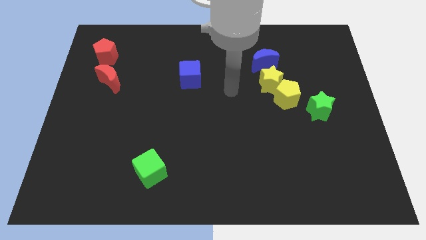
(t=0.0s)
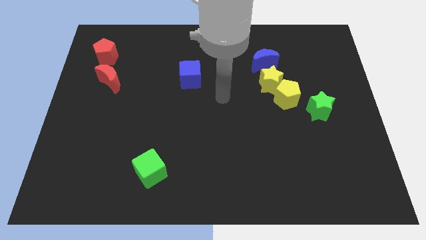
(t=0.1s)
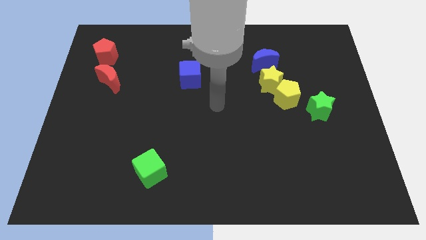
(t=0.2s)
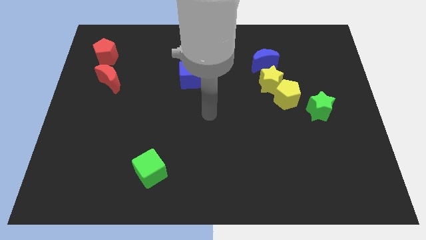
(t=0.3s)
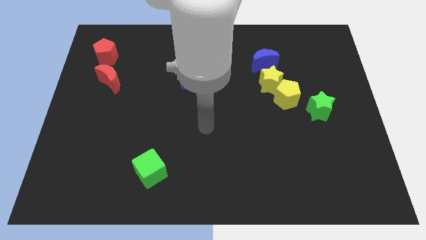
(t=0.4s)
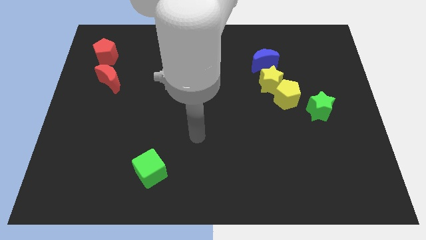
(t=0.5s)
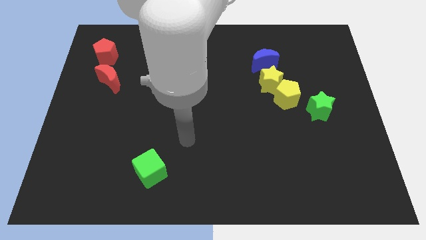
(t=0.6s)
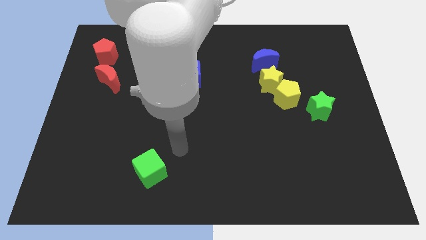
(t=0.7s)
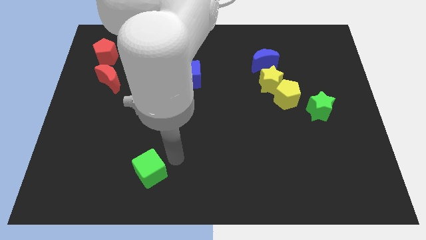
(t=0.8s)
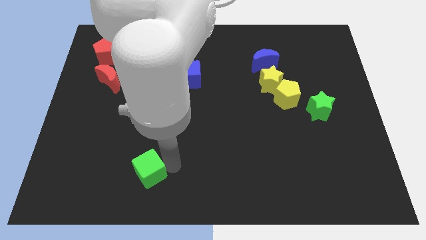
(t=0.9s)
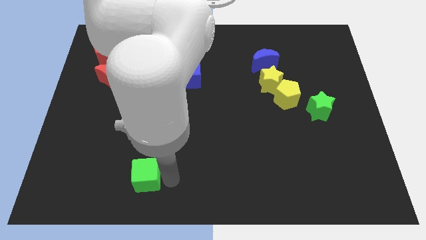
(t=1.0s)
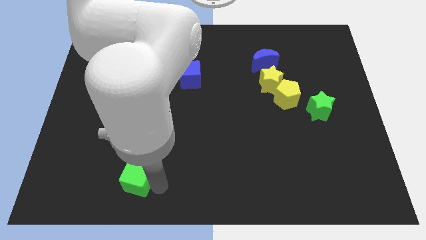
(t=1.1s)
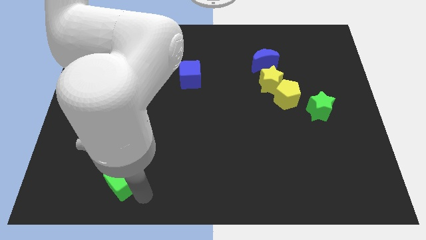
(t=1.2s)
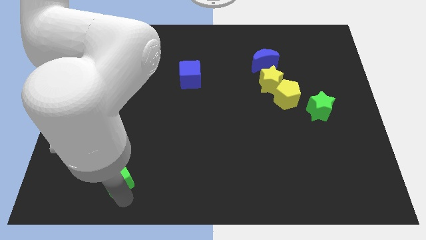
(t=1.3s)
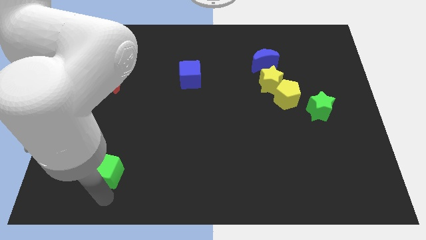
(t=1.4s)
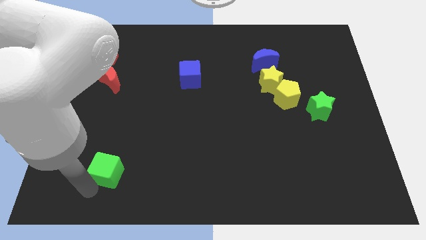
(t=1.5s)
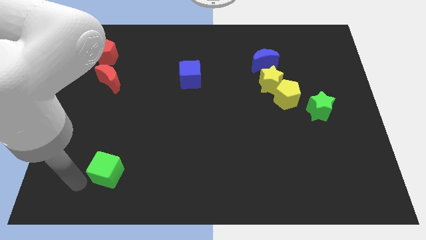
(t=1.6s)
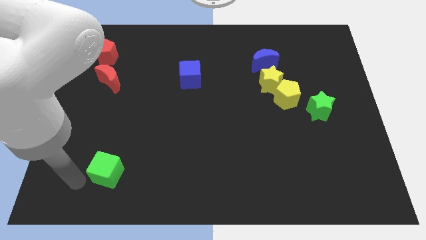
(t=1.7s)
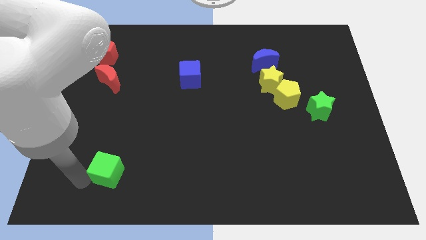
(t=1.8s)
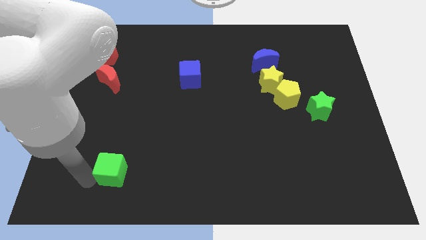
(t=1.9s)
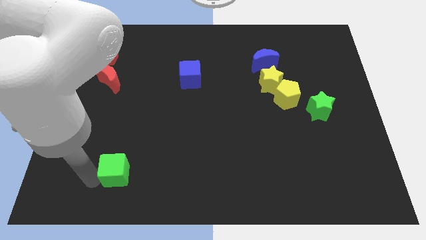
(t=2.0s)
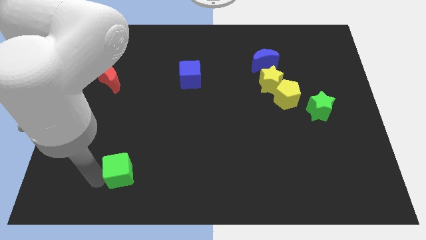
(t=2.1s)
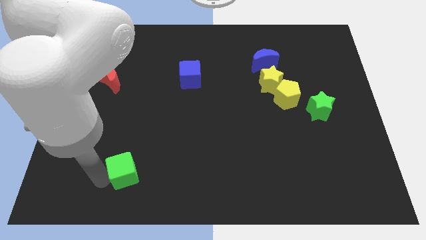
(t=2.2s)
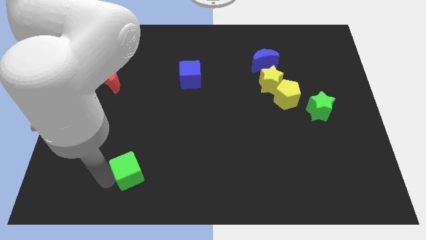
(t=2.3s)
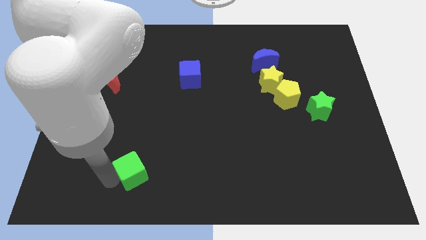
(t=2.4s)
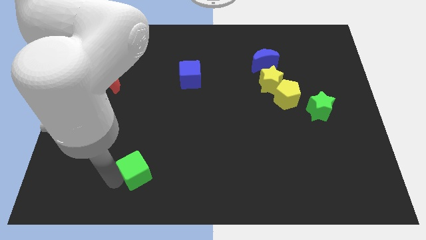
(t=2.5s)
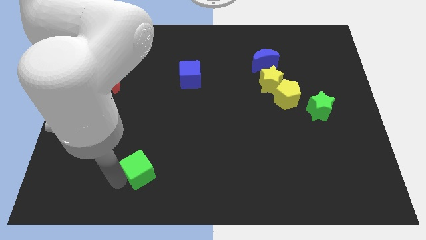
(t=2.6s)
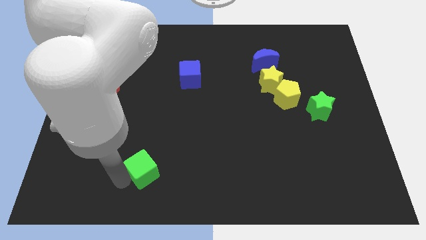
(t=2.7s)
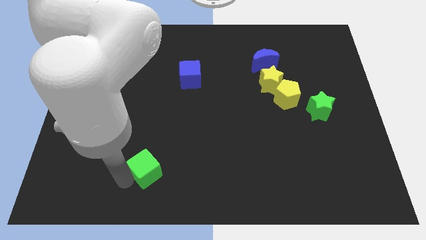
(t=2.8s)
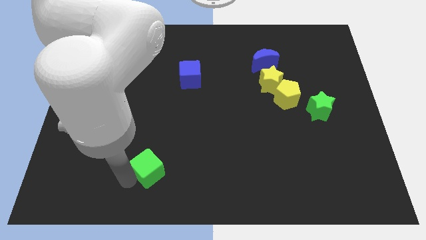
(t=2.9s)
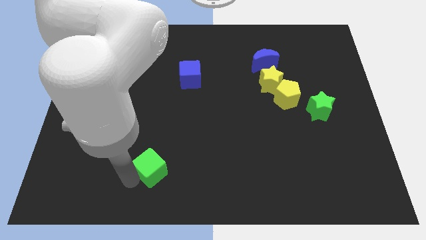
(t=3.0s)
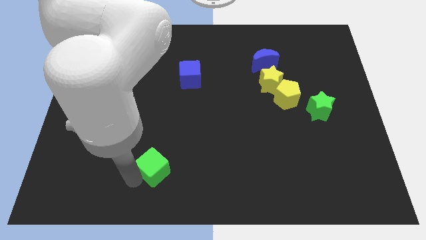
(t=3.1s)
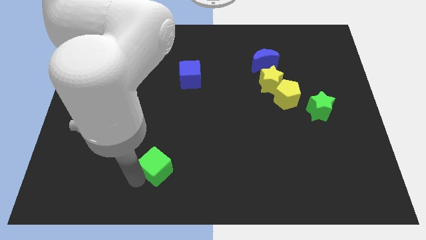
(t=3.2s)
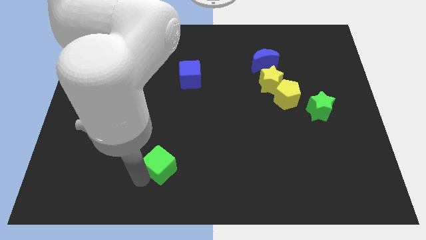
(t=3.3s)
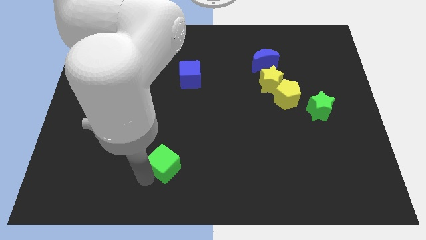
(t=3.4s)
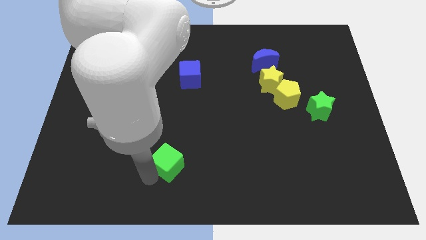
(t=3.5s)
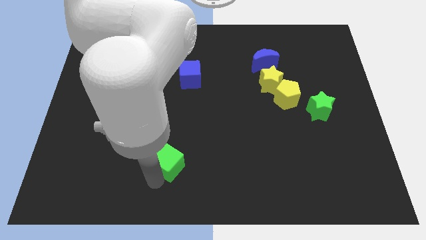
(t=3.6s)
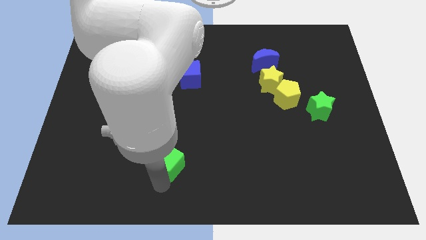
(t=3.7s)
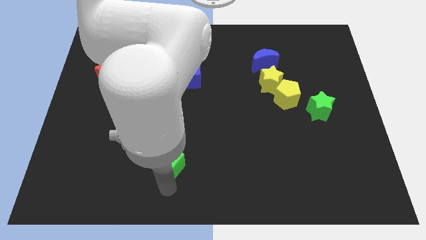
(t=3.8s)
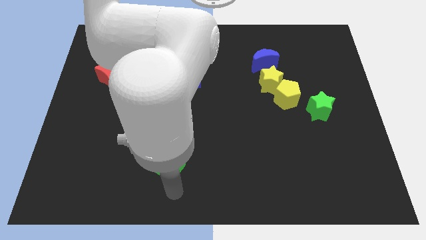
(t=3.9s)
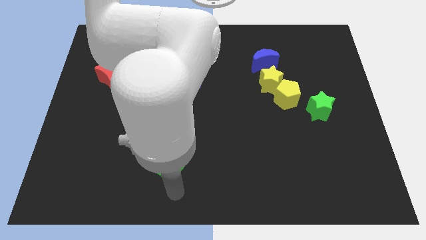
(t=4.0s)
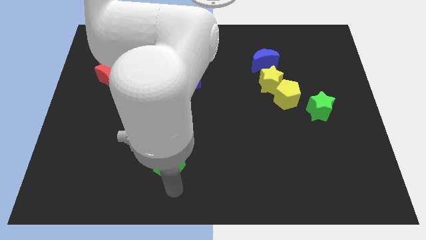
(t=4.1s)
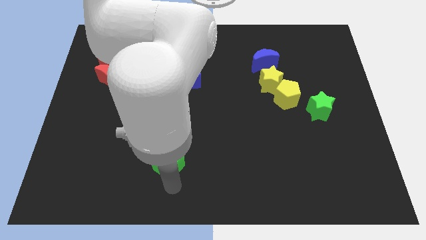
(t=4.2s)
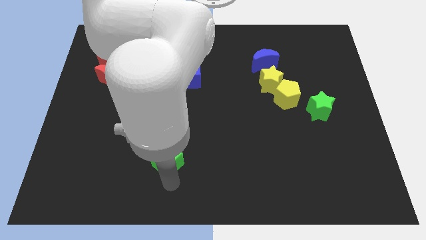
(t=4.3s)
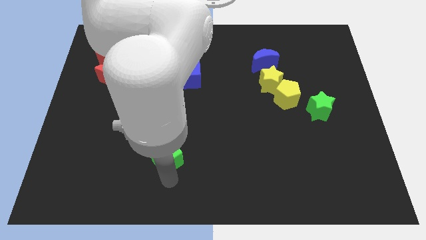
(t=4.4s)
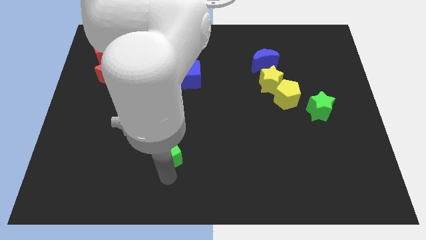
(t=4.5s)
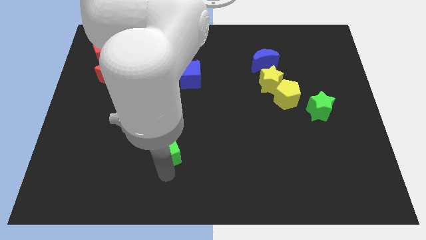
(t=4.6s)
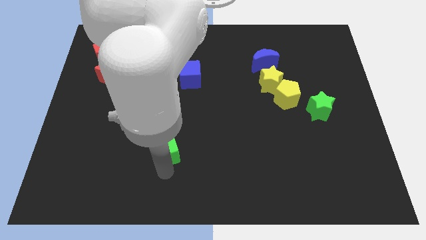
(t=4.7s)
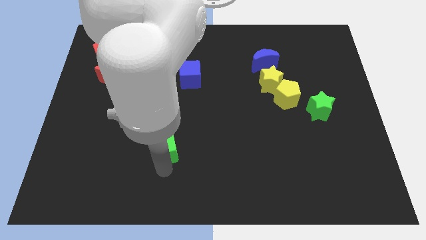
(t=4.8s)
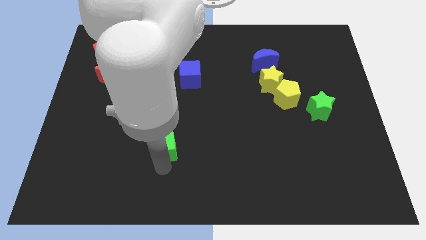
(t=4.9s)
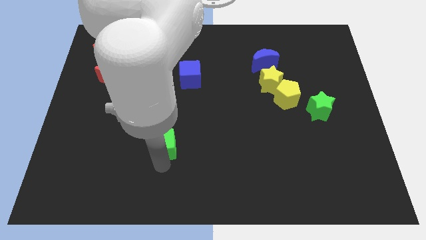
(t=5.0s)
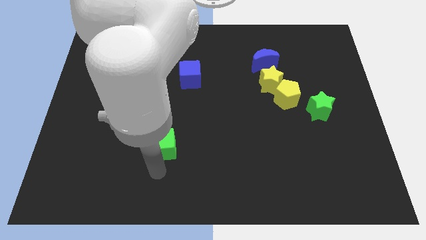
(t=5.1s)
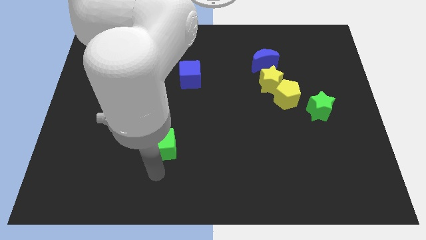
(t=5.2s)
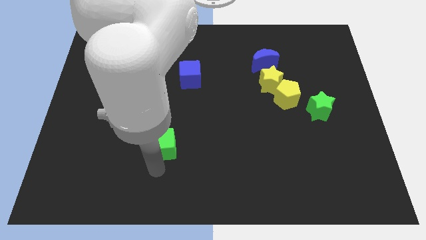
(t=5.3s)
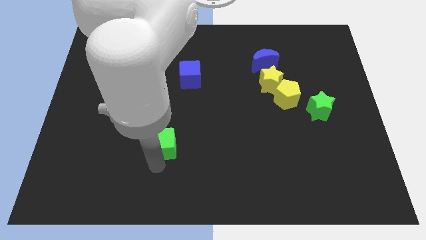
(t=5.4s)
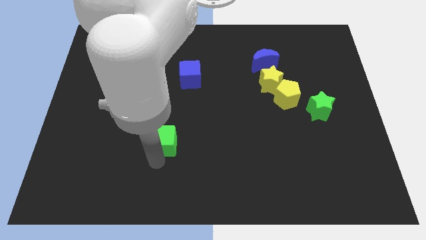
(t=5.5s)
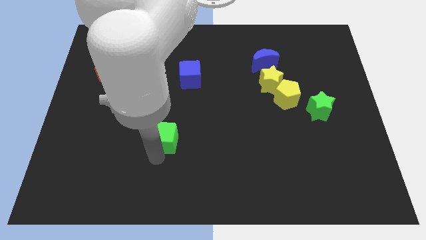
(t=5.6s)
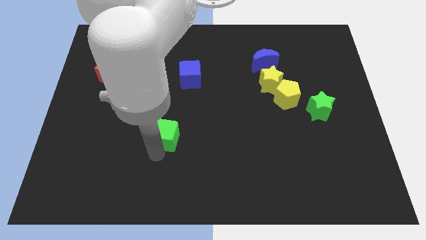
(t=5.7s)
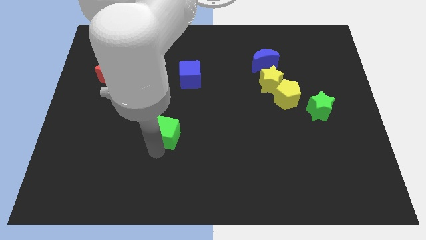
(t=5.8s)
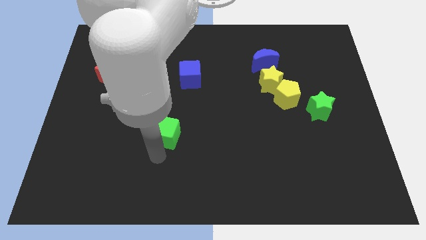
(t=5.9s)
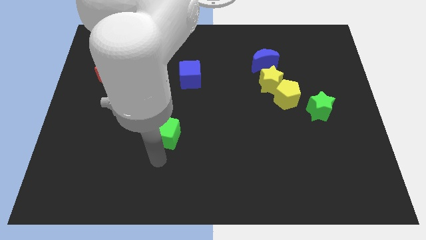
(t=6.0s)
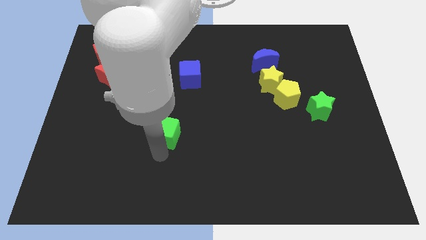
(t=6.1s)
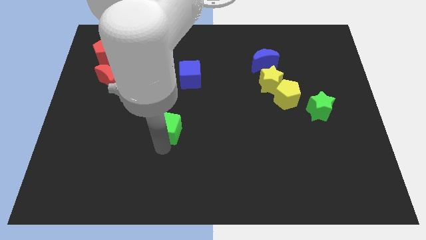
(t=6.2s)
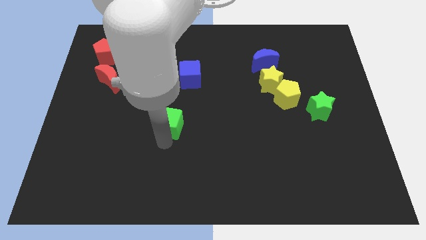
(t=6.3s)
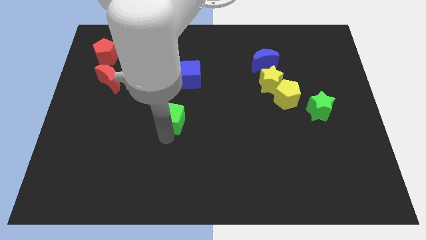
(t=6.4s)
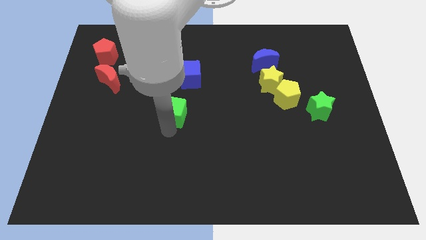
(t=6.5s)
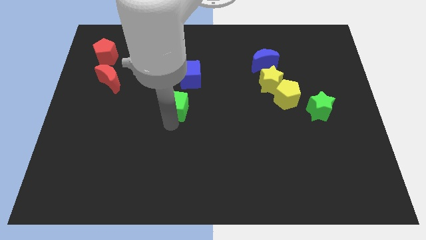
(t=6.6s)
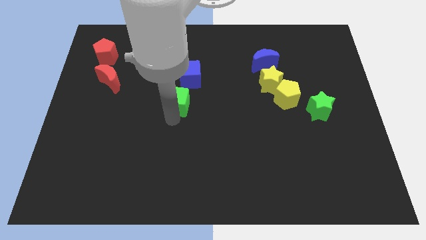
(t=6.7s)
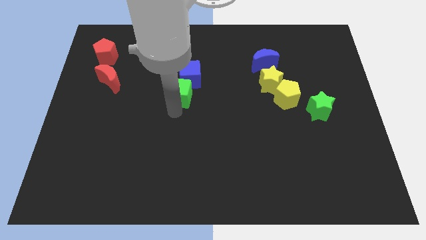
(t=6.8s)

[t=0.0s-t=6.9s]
push the green cube towards the blue cube

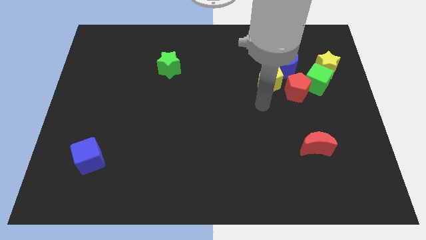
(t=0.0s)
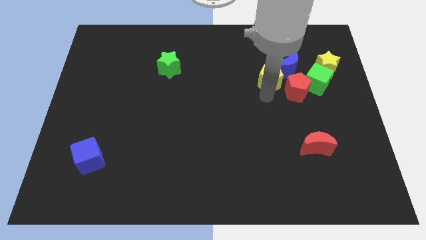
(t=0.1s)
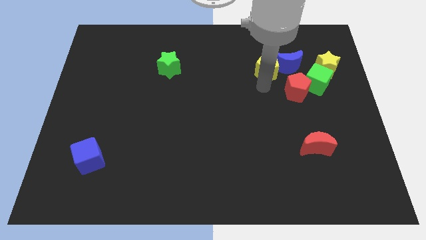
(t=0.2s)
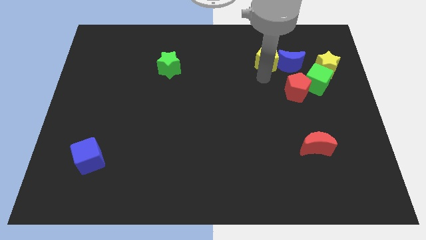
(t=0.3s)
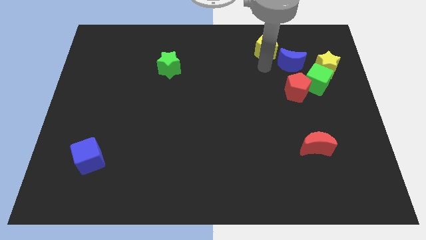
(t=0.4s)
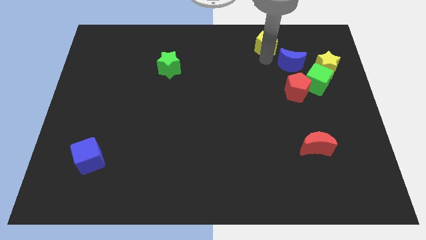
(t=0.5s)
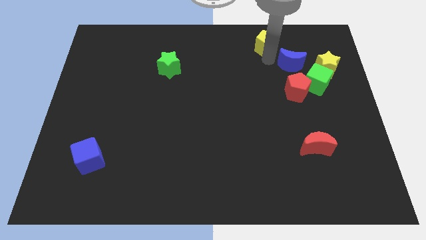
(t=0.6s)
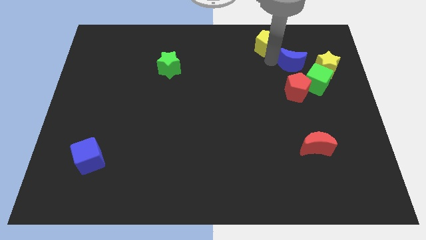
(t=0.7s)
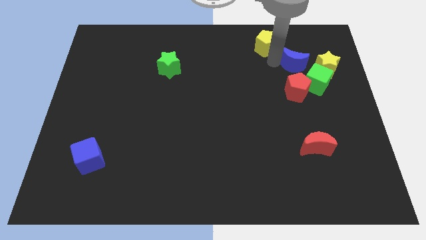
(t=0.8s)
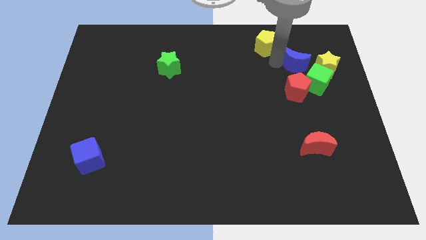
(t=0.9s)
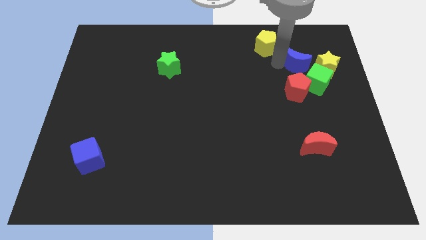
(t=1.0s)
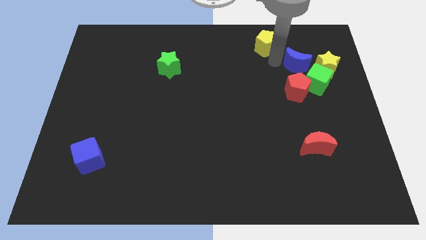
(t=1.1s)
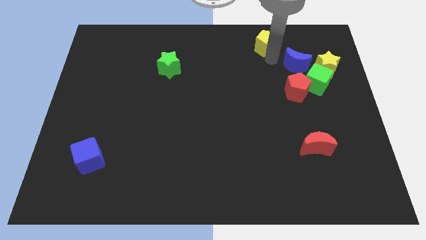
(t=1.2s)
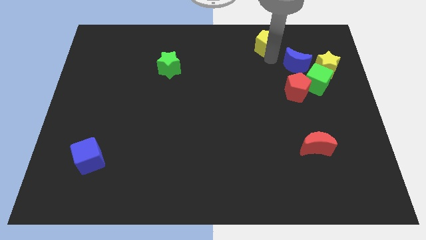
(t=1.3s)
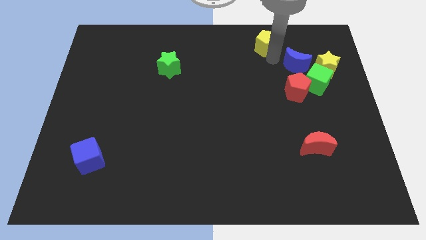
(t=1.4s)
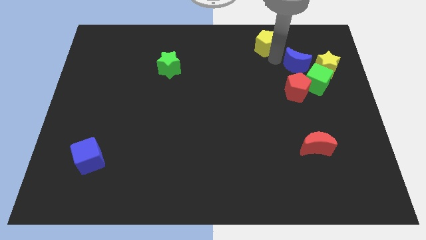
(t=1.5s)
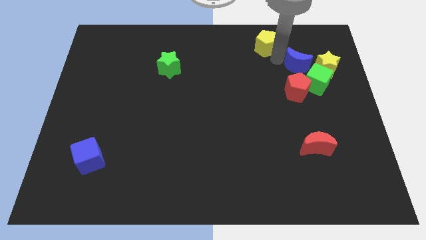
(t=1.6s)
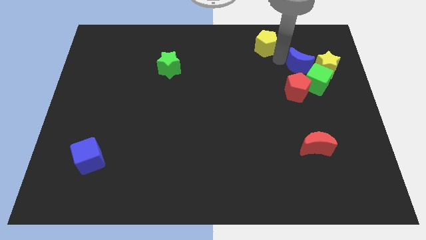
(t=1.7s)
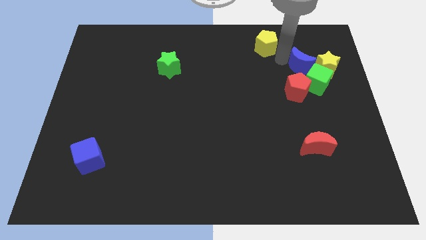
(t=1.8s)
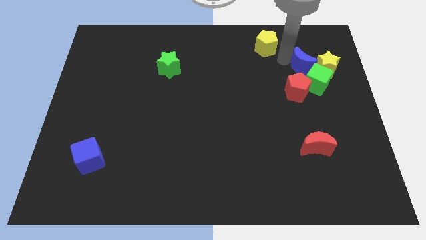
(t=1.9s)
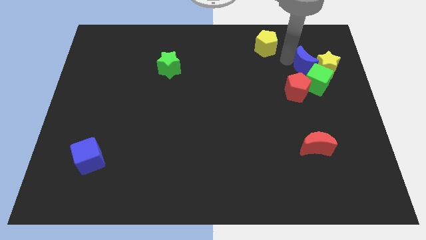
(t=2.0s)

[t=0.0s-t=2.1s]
push the blue moon to the yellow star
